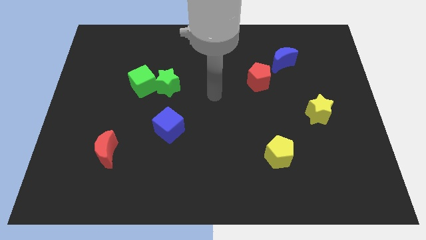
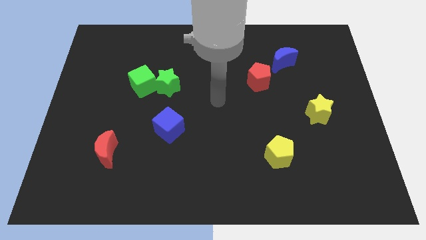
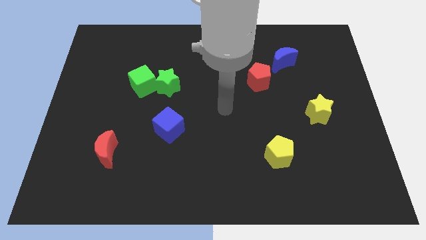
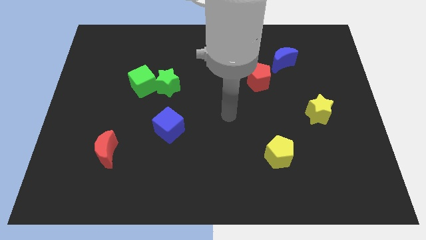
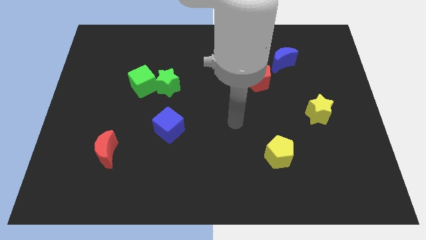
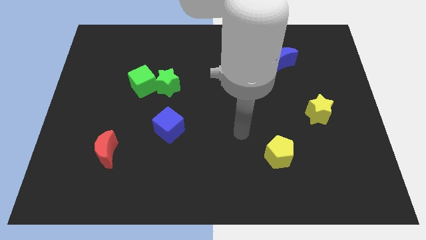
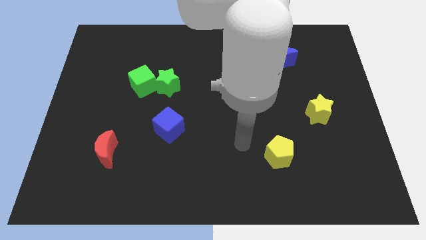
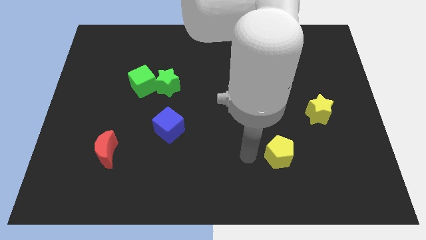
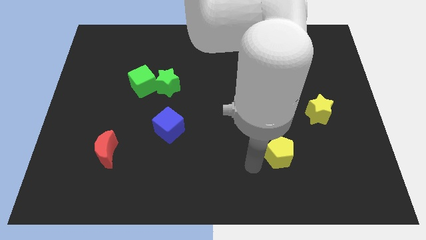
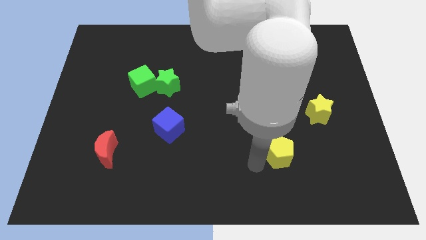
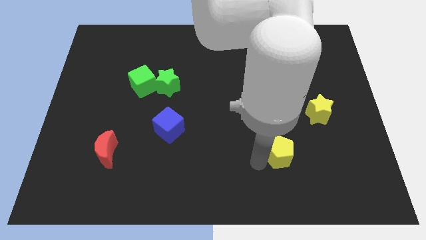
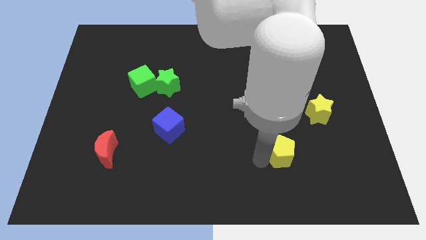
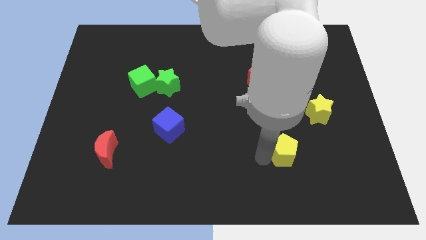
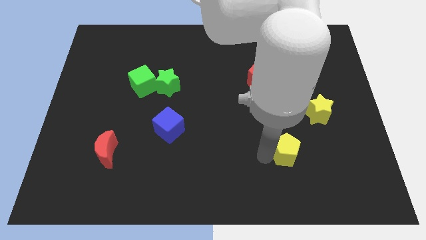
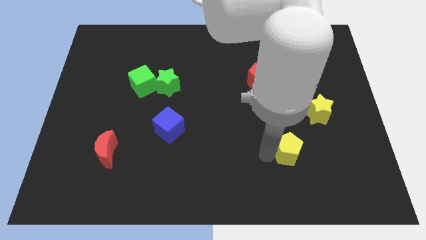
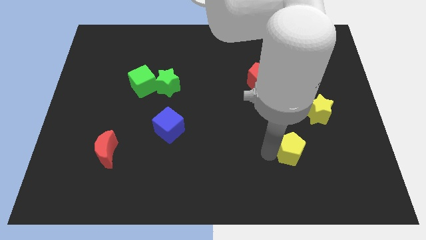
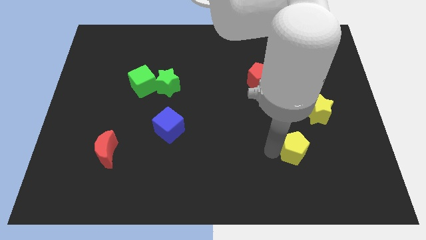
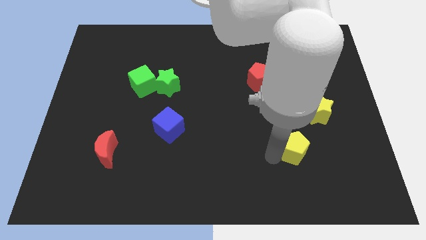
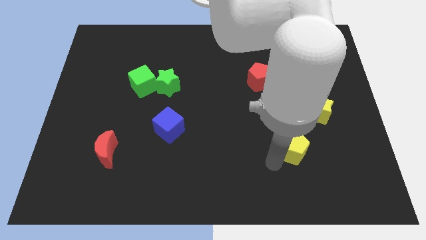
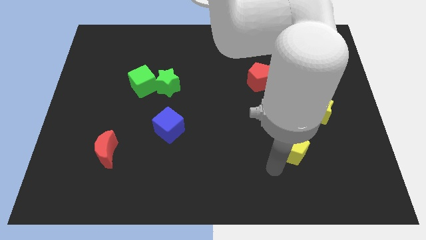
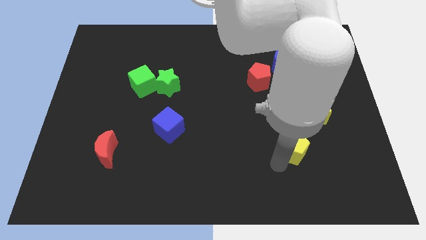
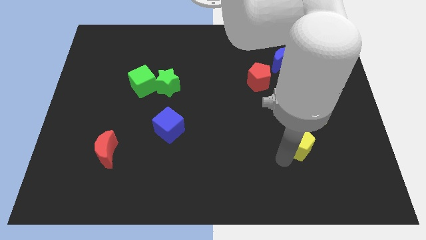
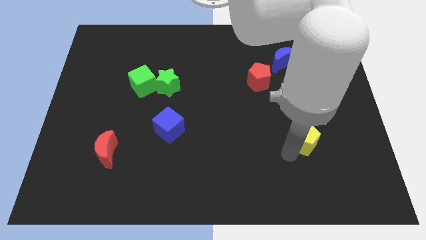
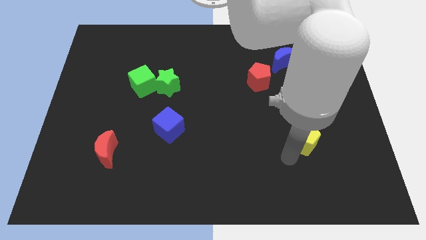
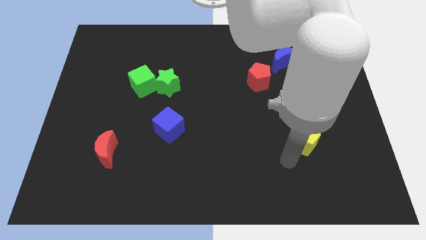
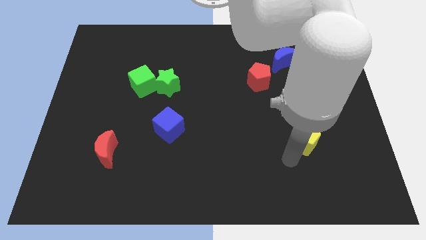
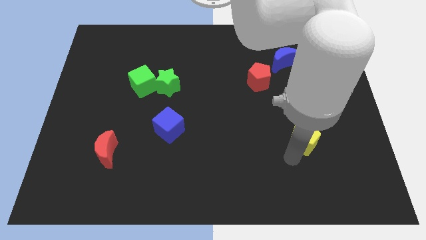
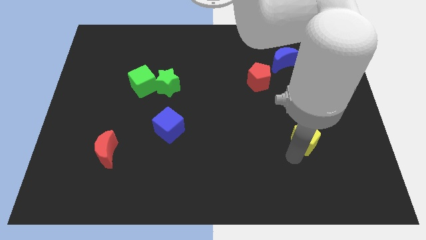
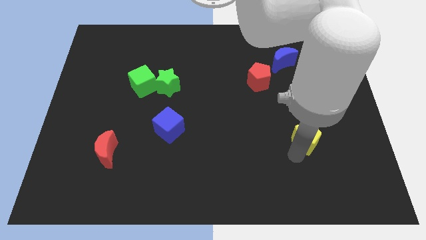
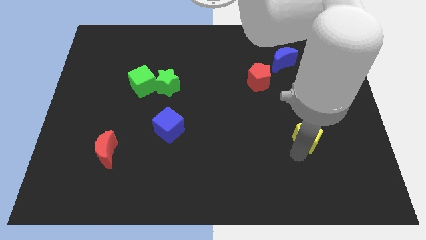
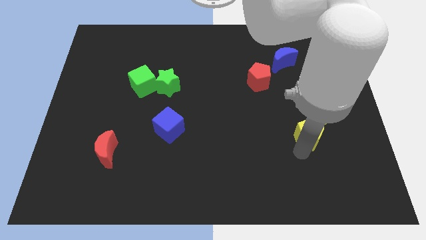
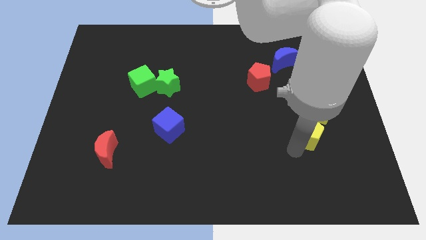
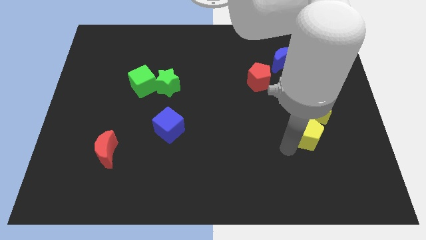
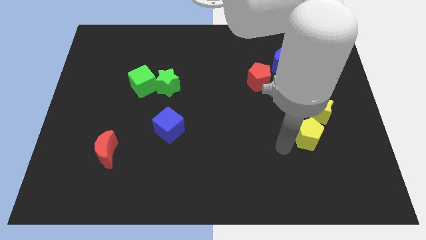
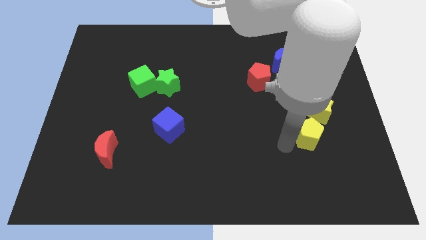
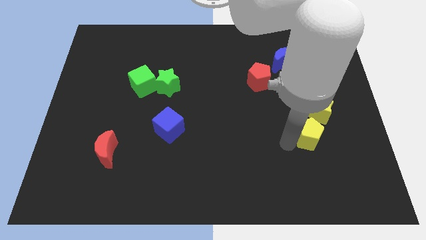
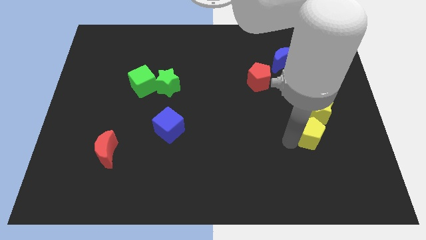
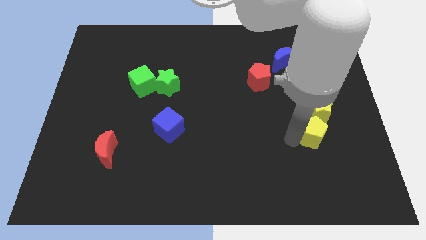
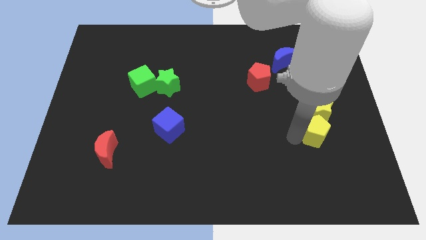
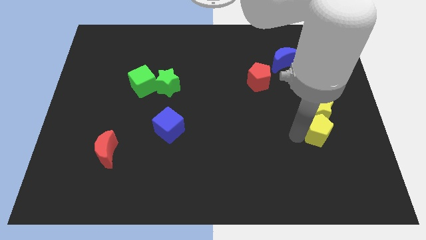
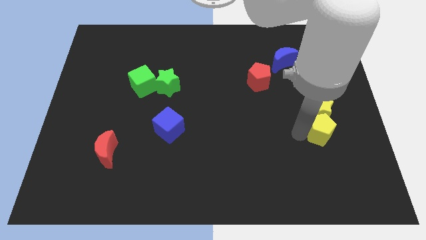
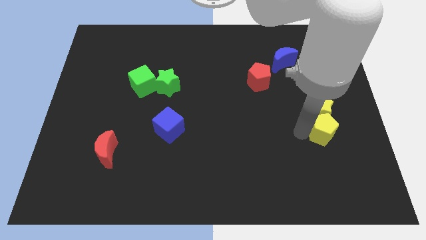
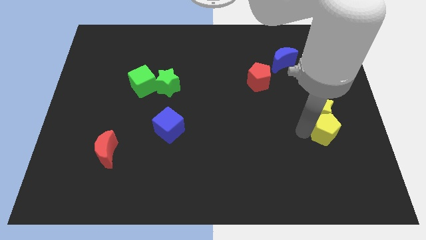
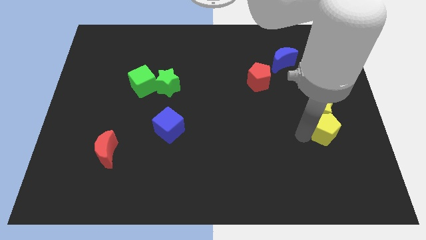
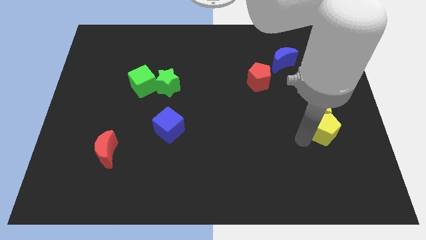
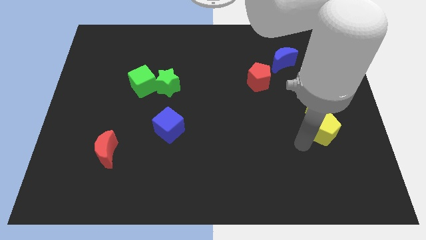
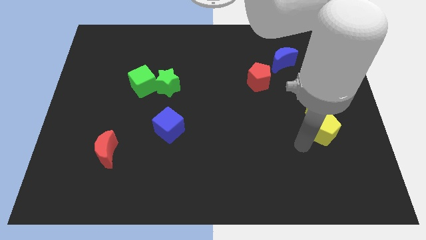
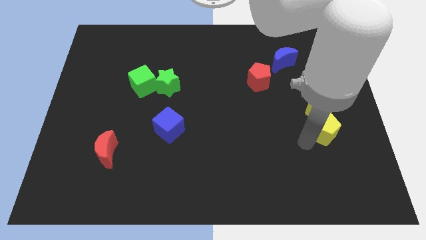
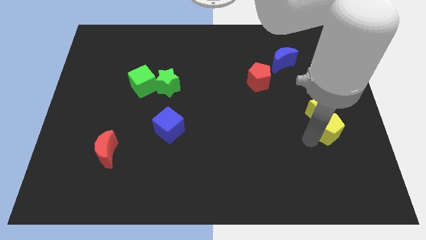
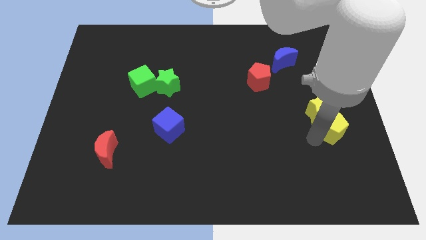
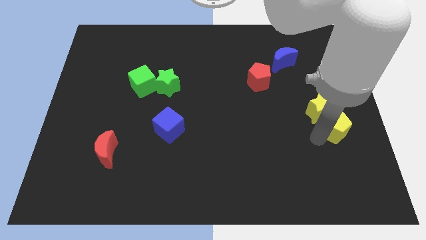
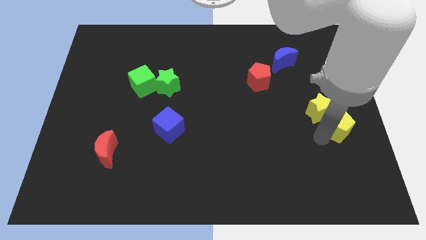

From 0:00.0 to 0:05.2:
move the yellow pentagon to the right side
